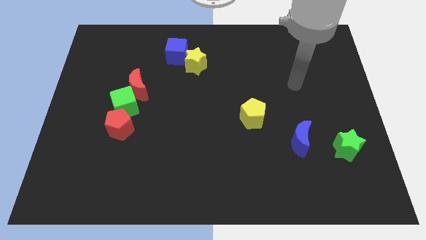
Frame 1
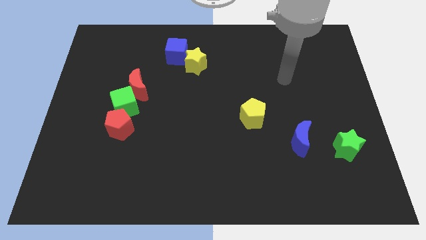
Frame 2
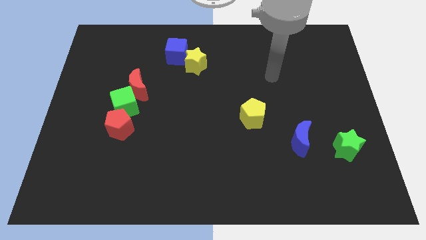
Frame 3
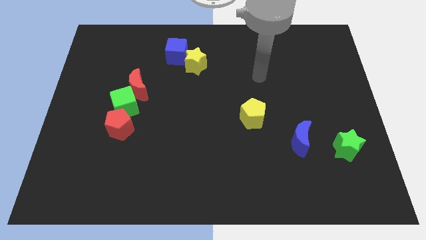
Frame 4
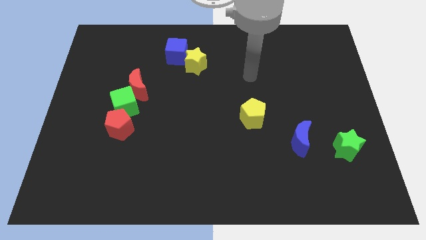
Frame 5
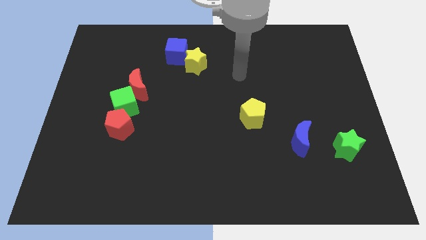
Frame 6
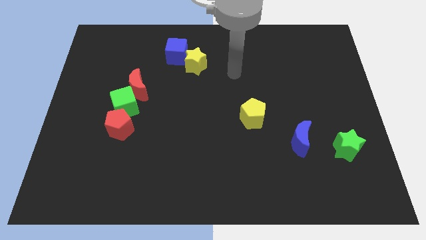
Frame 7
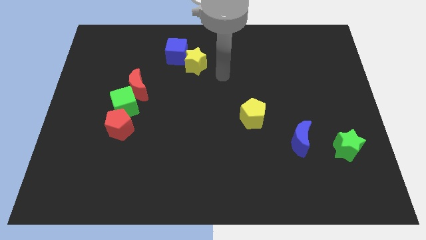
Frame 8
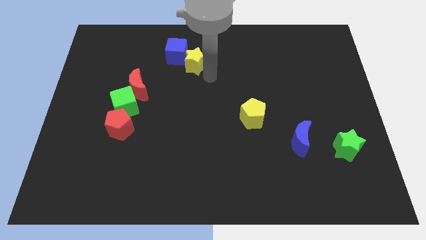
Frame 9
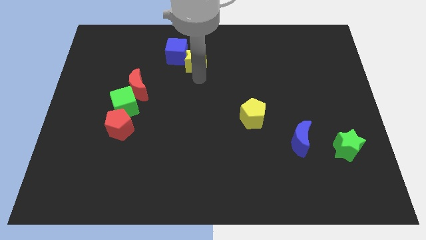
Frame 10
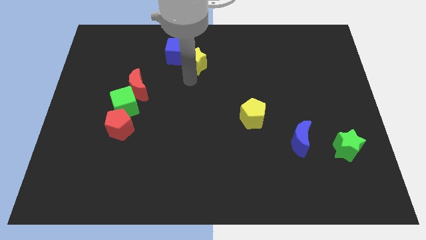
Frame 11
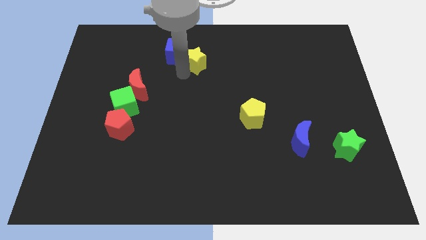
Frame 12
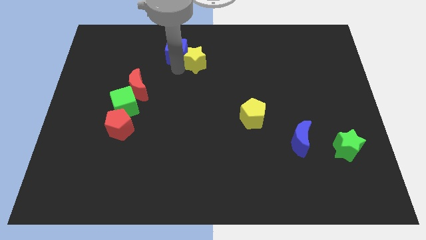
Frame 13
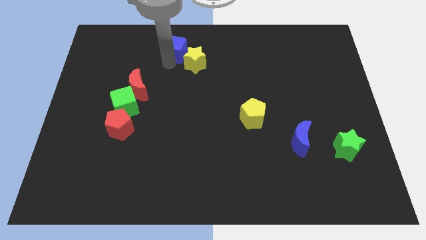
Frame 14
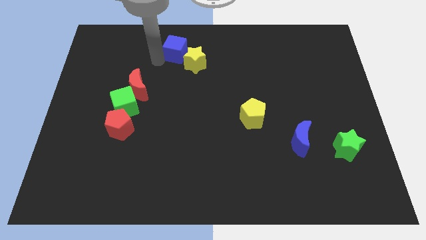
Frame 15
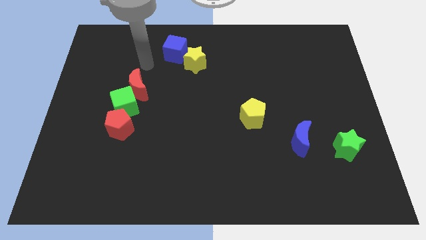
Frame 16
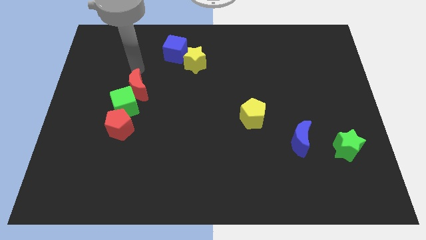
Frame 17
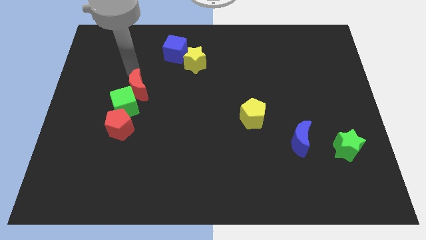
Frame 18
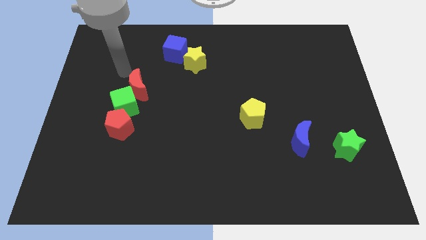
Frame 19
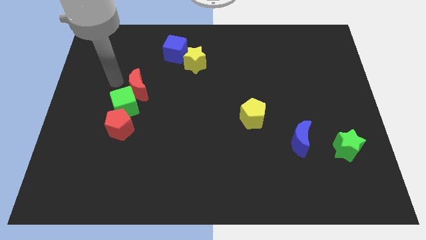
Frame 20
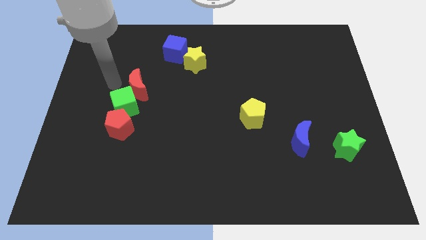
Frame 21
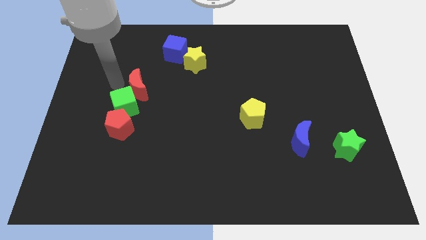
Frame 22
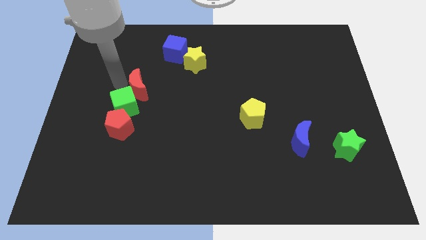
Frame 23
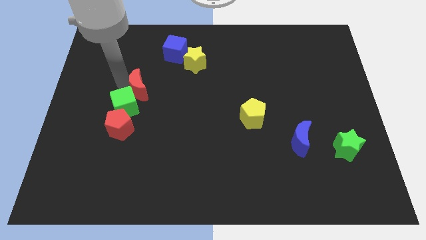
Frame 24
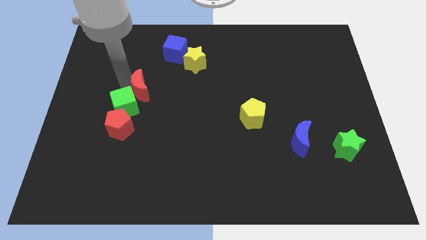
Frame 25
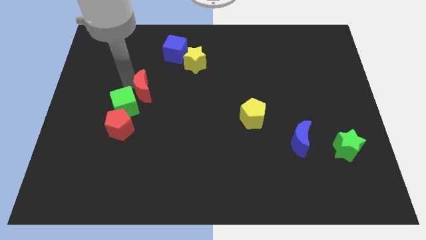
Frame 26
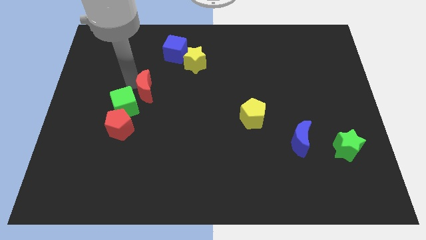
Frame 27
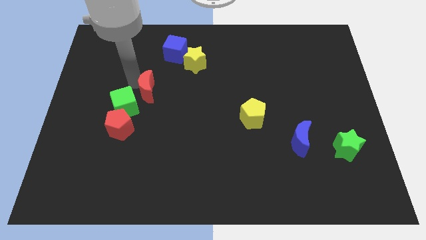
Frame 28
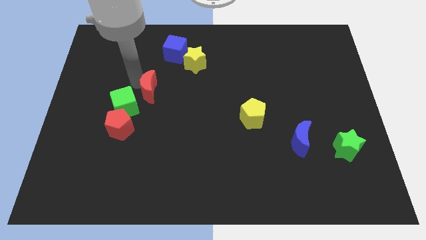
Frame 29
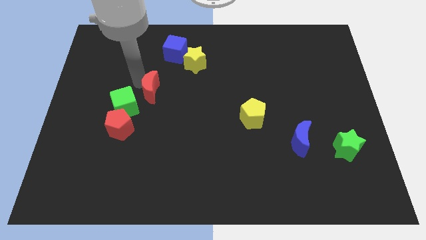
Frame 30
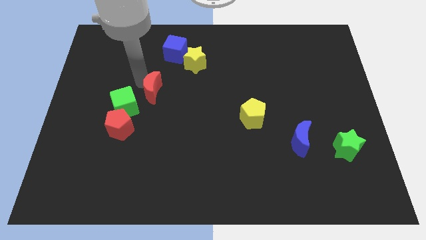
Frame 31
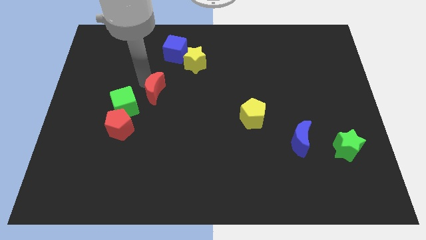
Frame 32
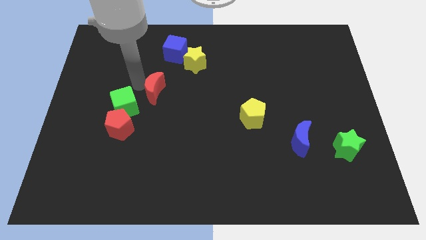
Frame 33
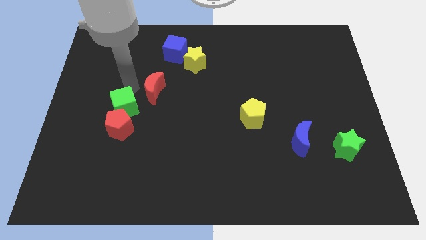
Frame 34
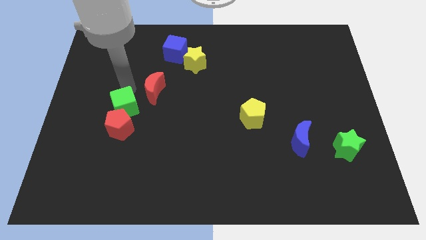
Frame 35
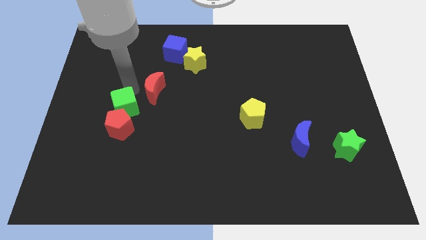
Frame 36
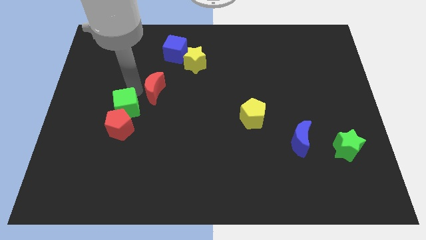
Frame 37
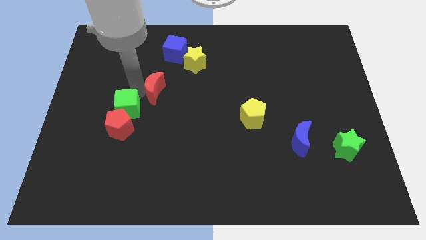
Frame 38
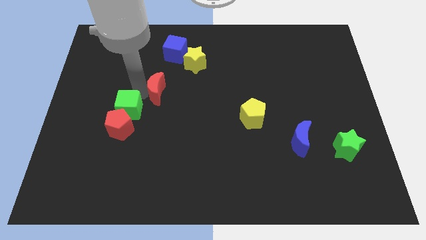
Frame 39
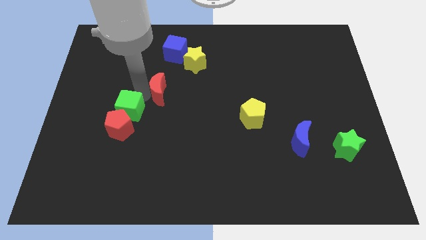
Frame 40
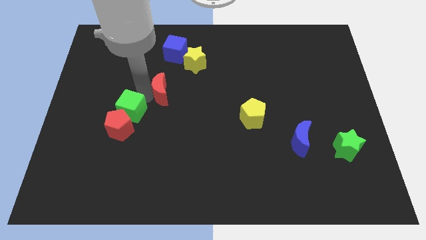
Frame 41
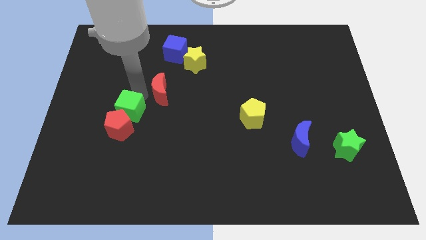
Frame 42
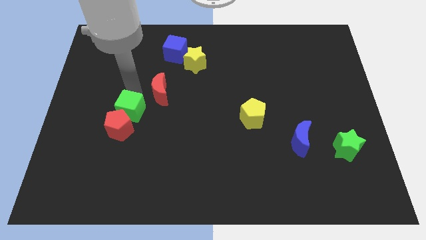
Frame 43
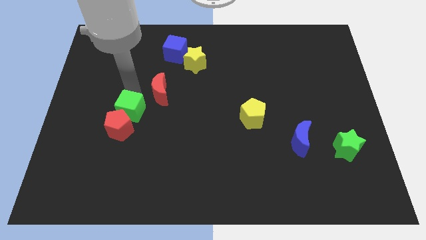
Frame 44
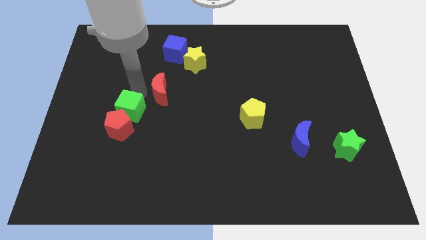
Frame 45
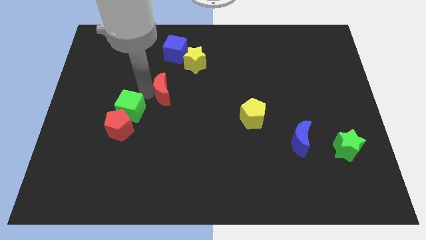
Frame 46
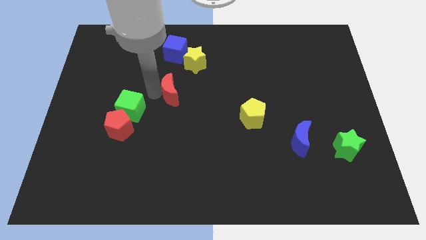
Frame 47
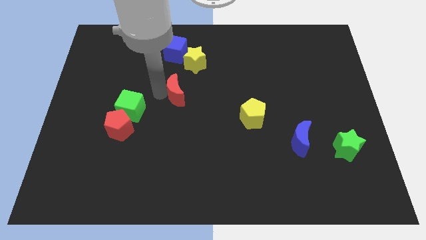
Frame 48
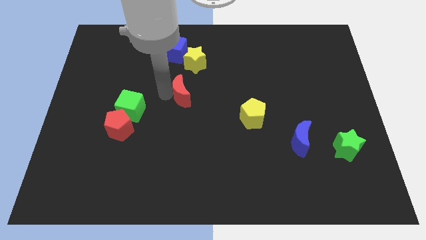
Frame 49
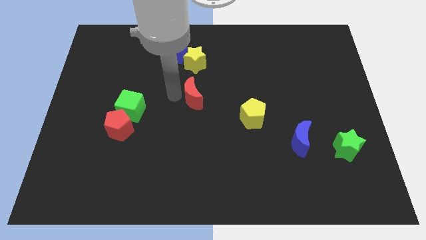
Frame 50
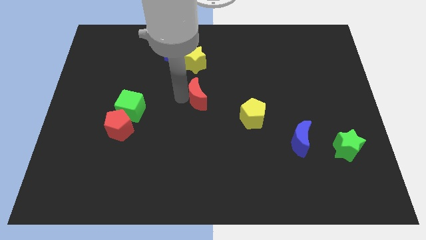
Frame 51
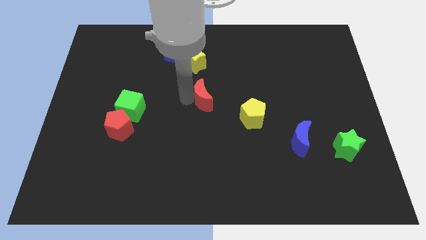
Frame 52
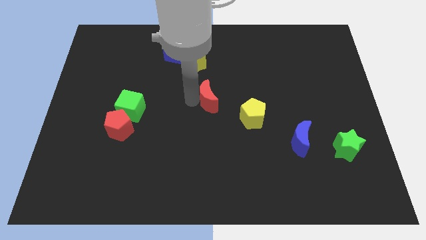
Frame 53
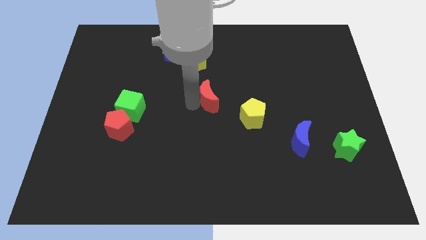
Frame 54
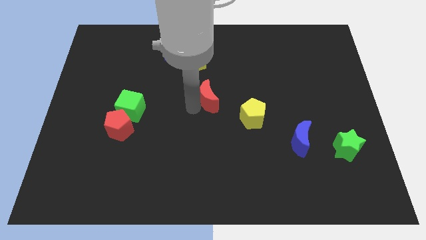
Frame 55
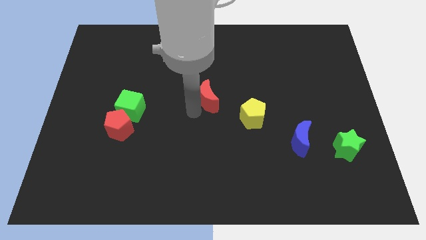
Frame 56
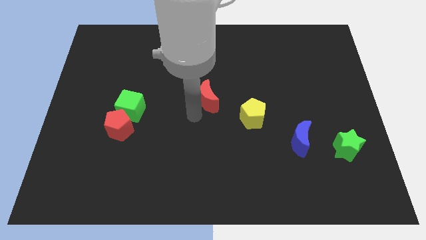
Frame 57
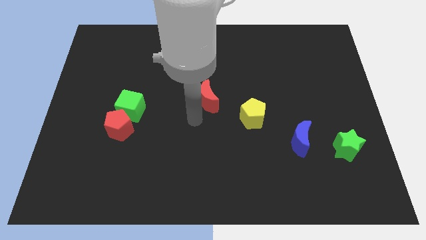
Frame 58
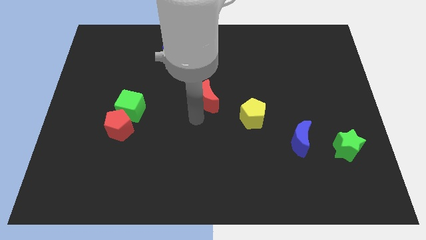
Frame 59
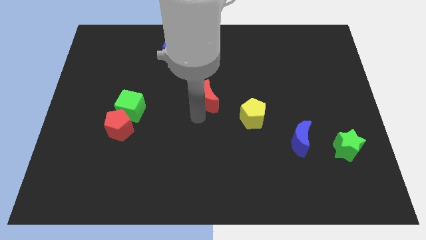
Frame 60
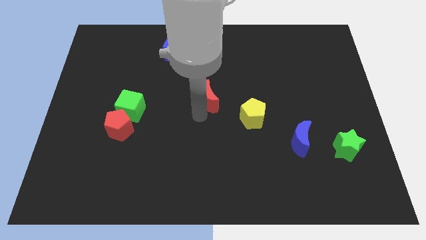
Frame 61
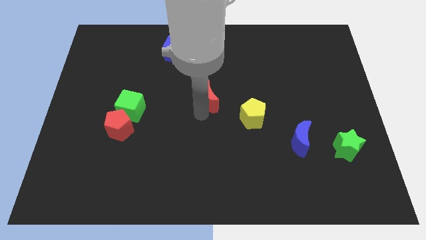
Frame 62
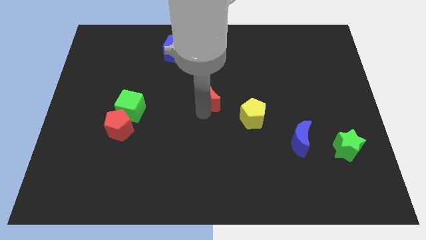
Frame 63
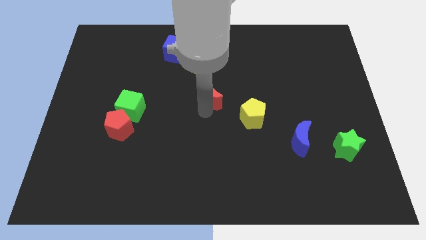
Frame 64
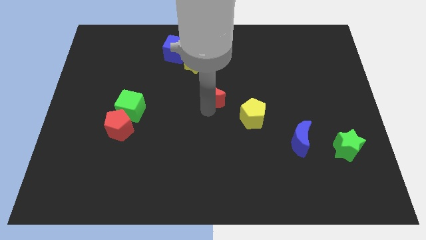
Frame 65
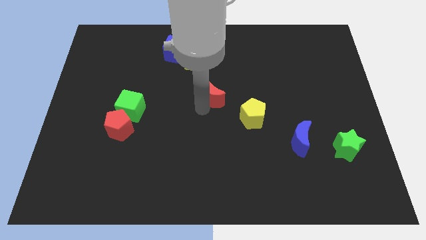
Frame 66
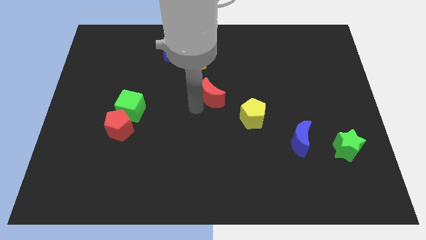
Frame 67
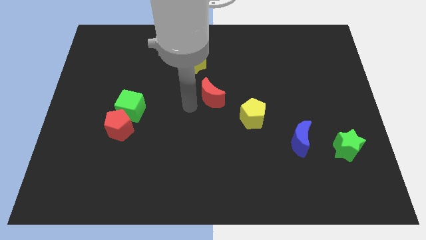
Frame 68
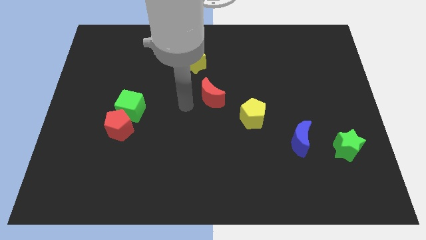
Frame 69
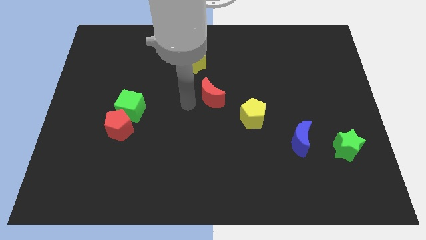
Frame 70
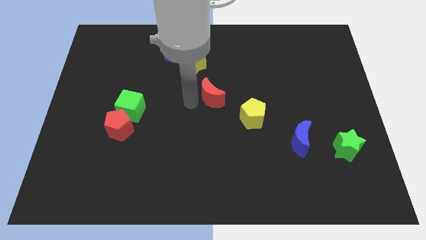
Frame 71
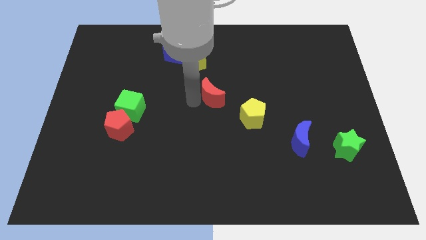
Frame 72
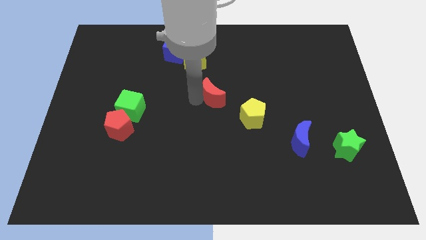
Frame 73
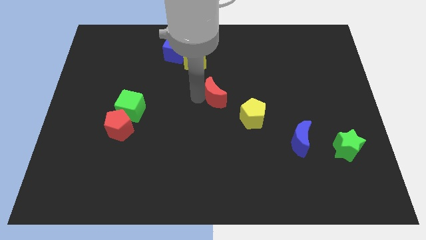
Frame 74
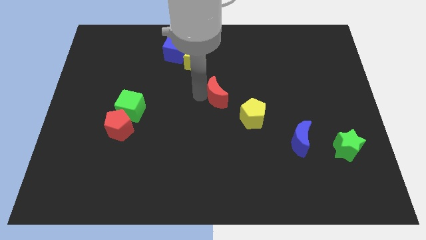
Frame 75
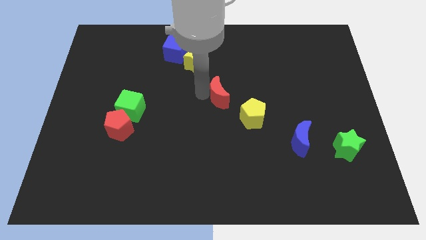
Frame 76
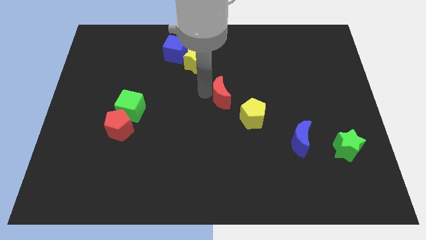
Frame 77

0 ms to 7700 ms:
slide the red moon to the right
